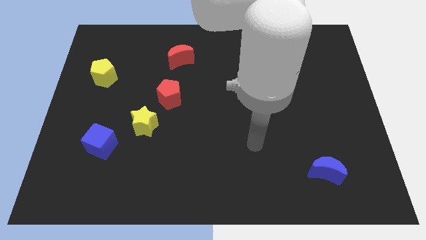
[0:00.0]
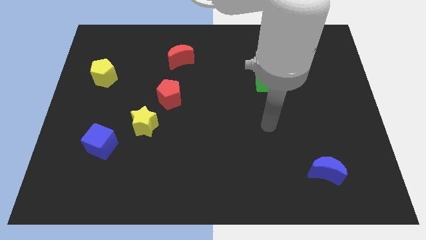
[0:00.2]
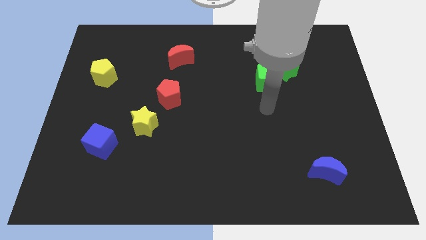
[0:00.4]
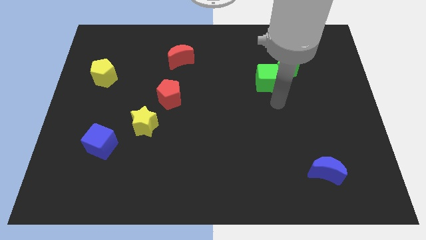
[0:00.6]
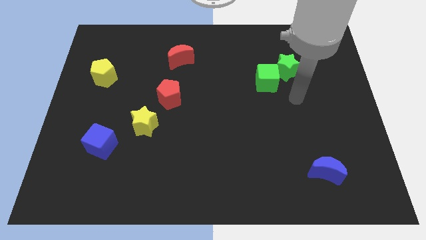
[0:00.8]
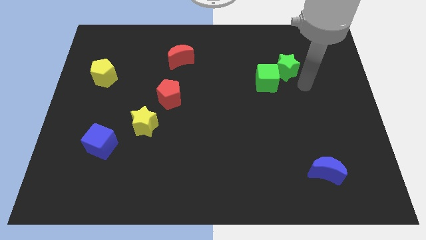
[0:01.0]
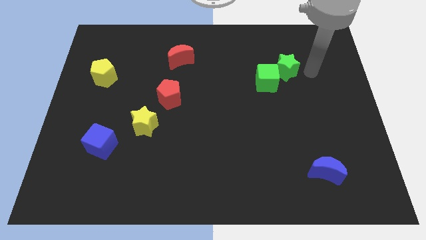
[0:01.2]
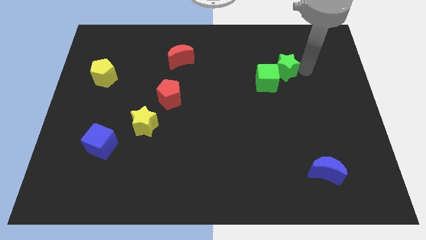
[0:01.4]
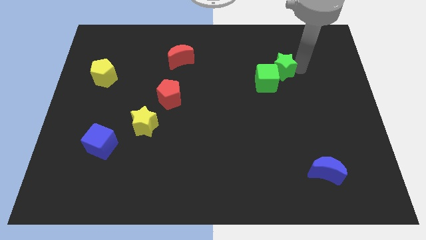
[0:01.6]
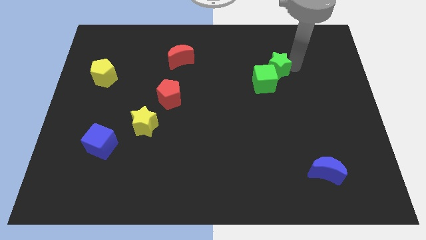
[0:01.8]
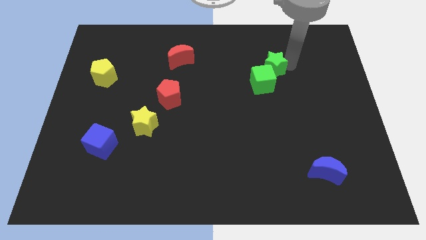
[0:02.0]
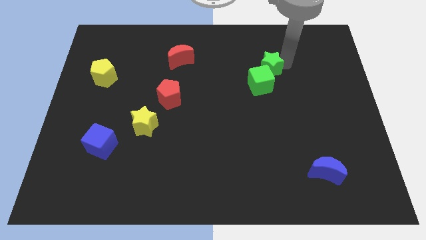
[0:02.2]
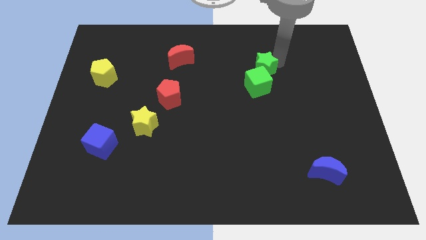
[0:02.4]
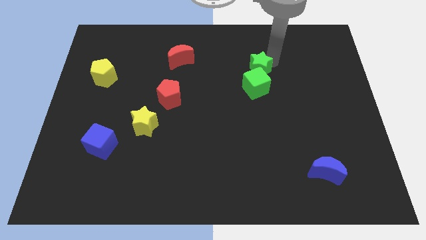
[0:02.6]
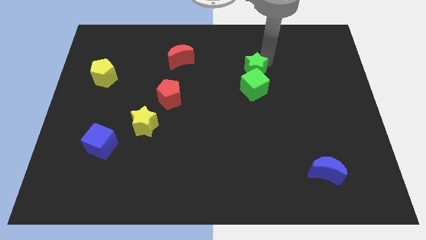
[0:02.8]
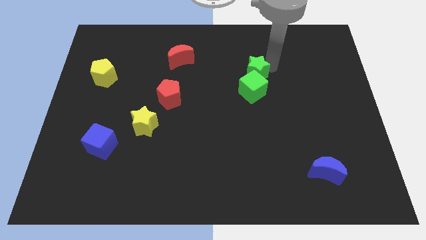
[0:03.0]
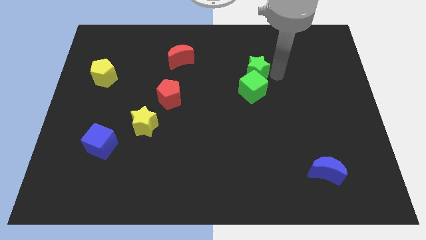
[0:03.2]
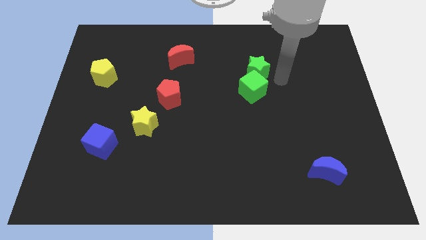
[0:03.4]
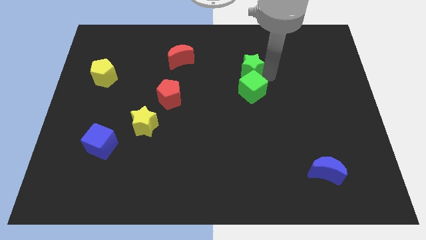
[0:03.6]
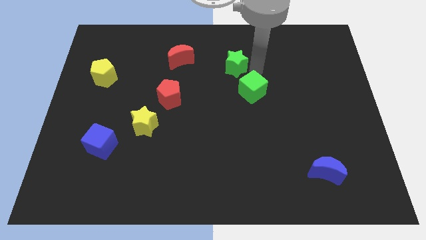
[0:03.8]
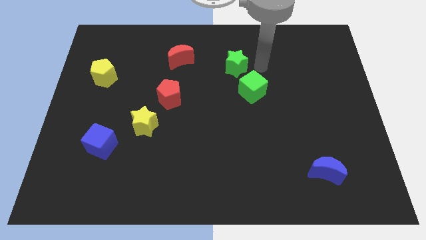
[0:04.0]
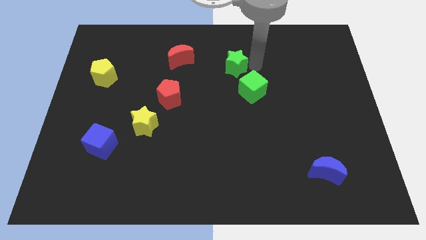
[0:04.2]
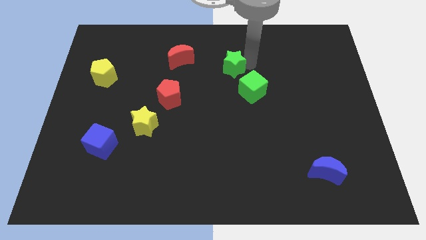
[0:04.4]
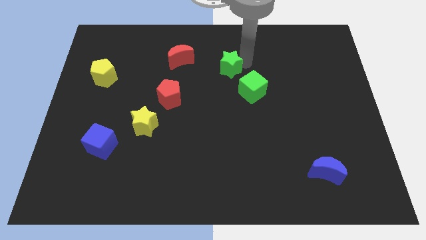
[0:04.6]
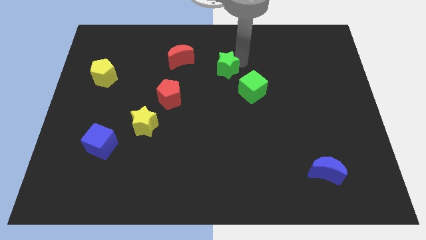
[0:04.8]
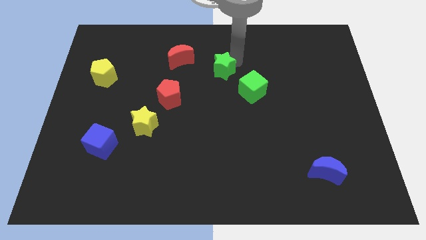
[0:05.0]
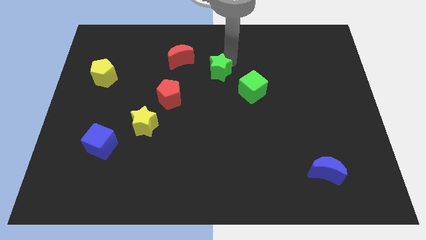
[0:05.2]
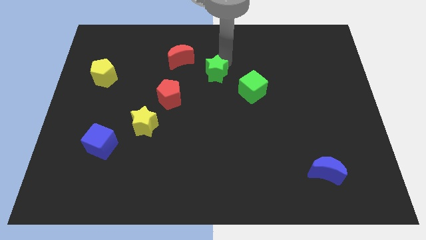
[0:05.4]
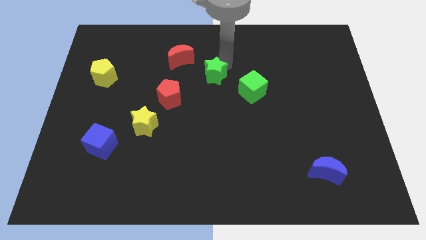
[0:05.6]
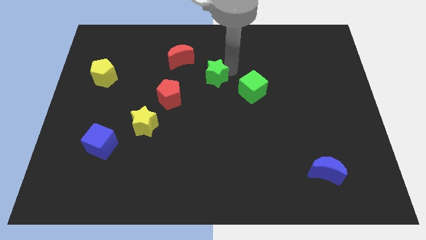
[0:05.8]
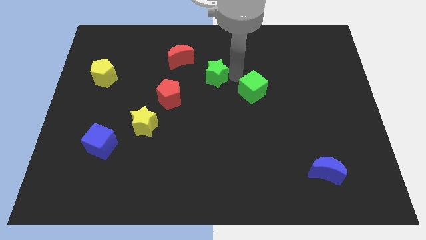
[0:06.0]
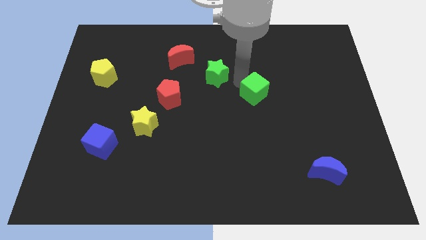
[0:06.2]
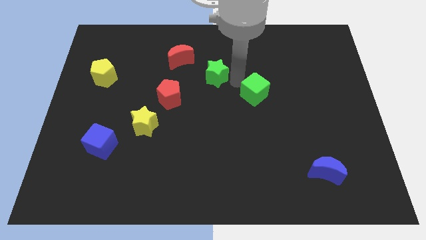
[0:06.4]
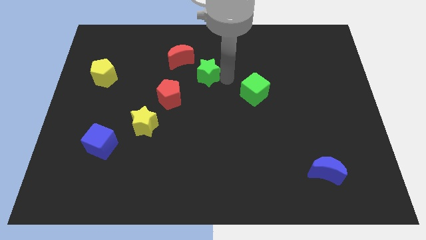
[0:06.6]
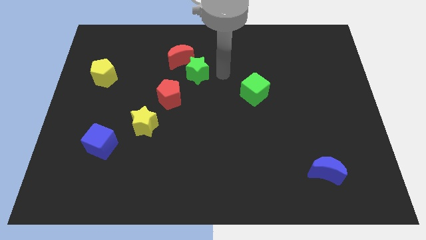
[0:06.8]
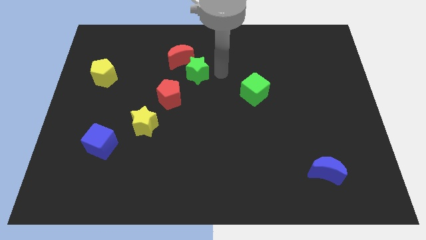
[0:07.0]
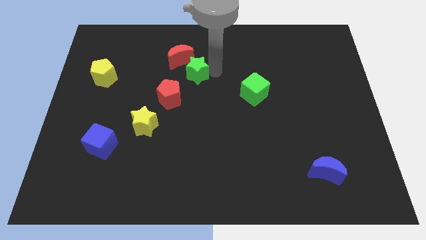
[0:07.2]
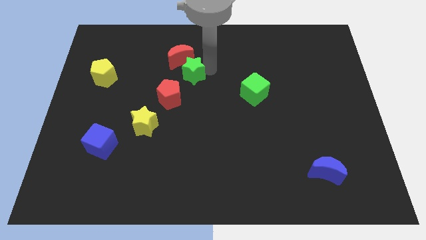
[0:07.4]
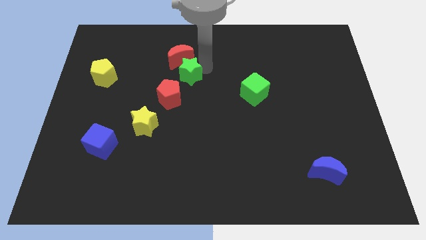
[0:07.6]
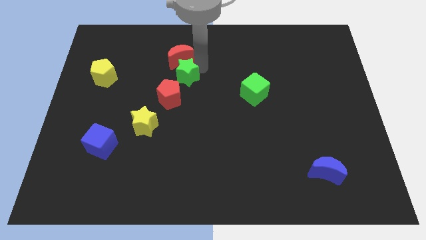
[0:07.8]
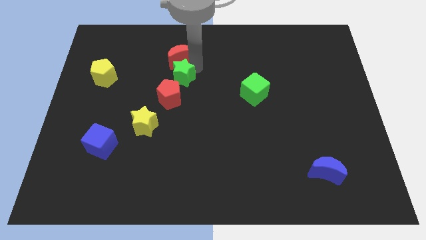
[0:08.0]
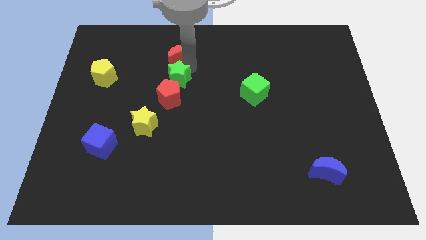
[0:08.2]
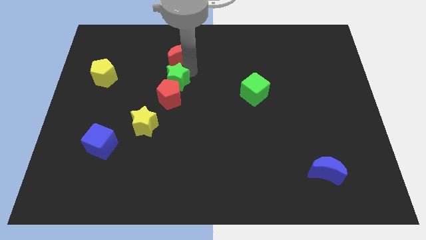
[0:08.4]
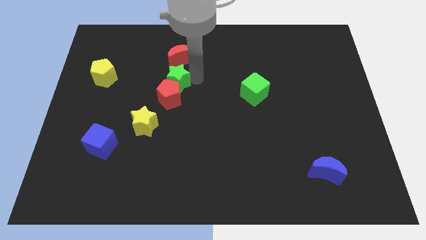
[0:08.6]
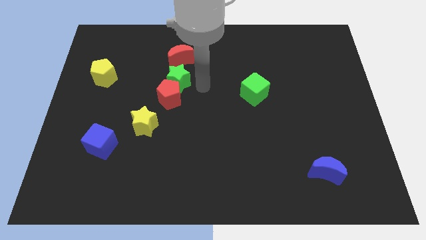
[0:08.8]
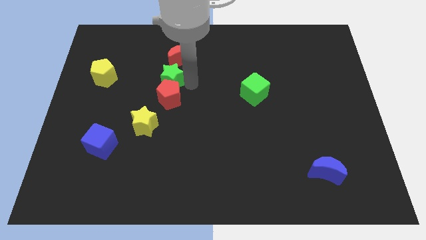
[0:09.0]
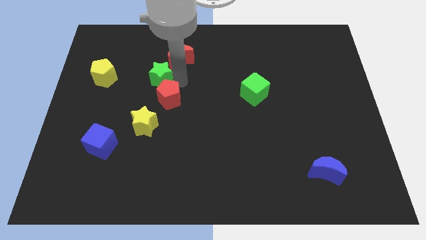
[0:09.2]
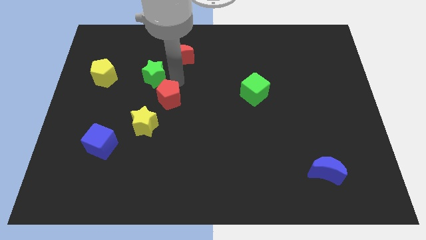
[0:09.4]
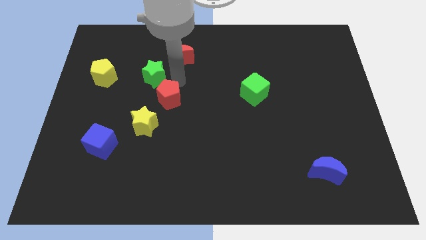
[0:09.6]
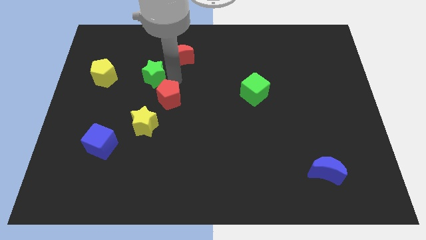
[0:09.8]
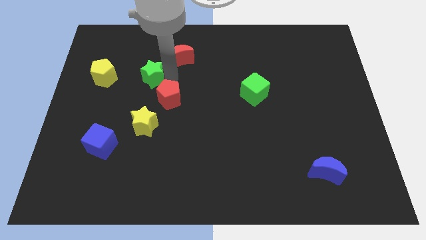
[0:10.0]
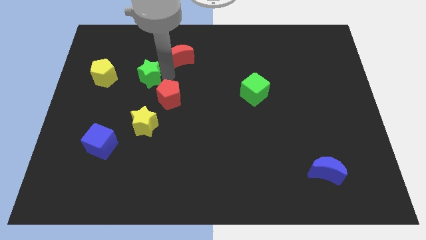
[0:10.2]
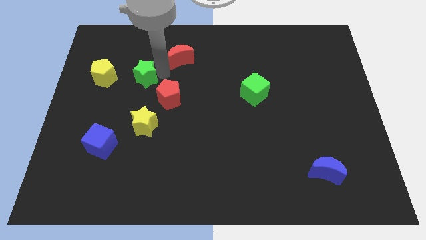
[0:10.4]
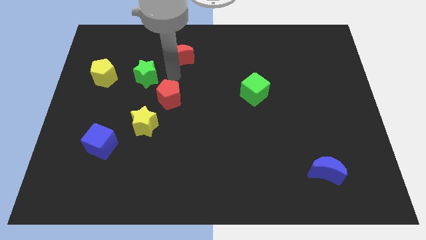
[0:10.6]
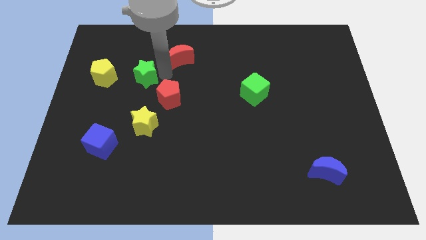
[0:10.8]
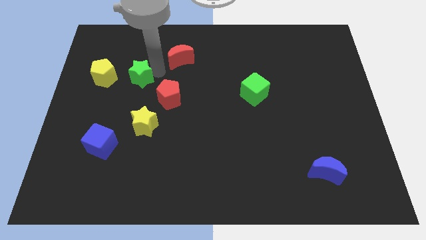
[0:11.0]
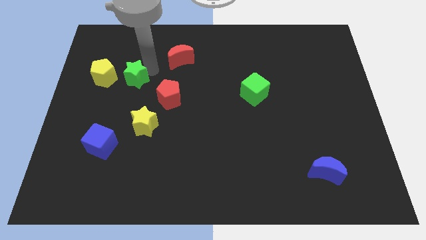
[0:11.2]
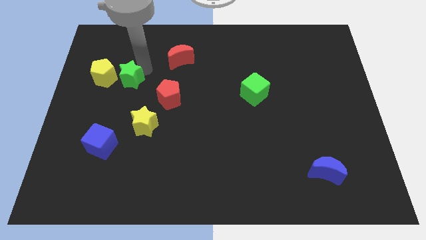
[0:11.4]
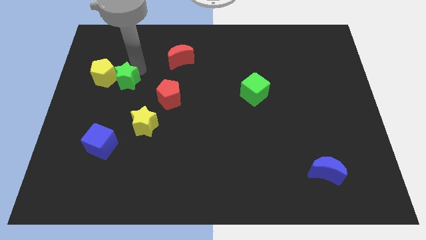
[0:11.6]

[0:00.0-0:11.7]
slide the green star close to the yellow pentagon
